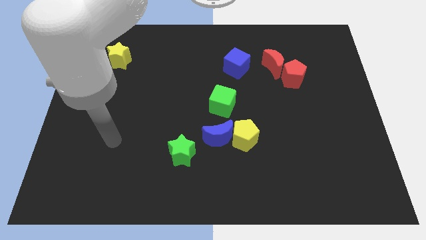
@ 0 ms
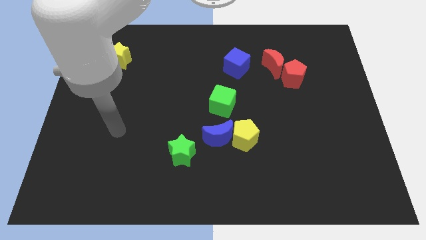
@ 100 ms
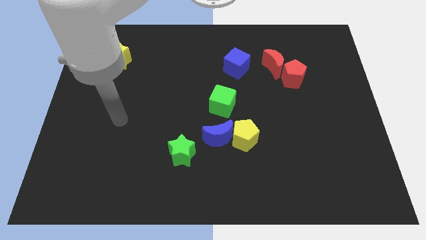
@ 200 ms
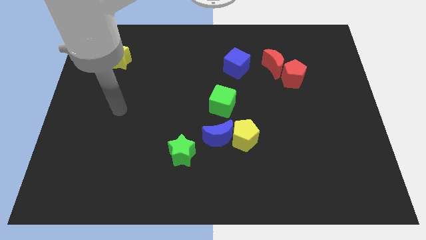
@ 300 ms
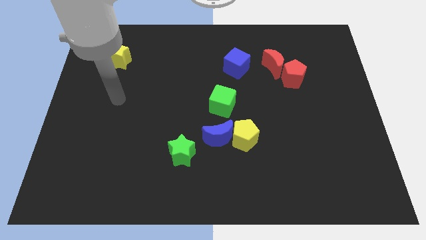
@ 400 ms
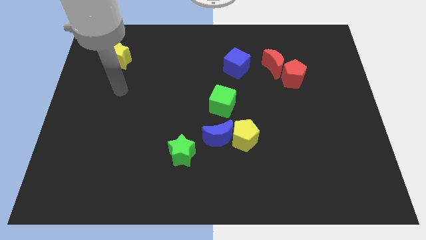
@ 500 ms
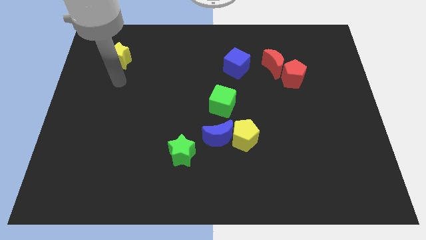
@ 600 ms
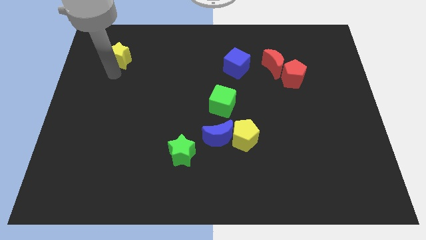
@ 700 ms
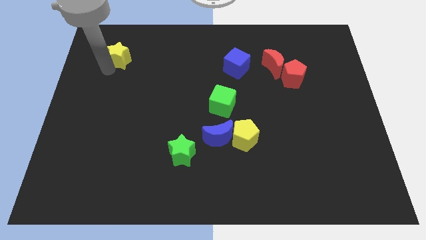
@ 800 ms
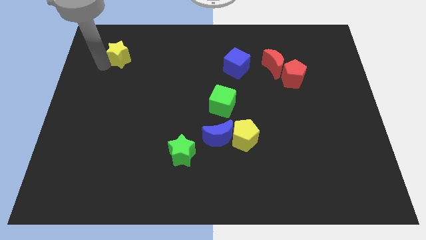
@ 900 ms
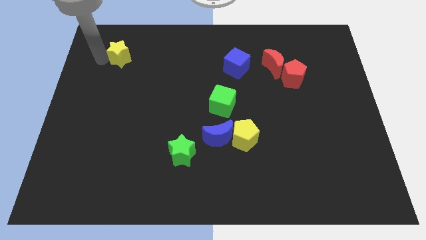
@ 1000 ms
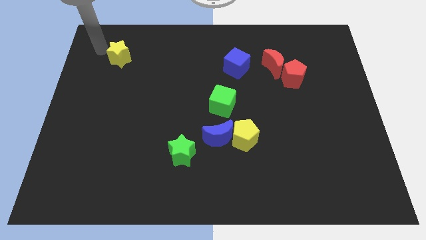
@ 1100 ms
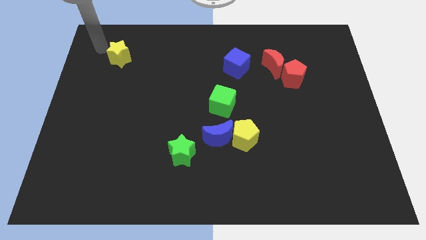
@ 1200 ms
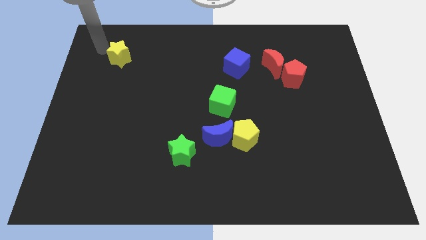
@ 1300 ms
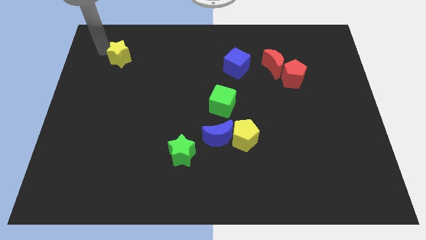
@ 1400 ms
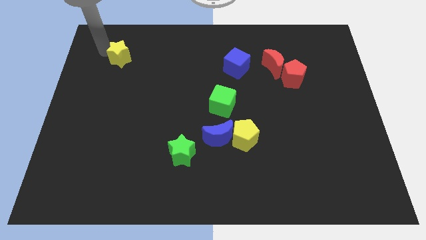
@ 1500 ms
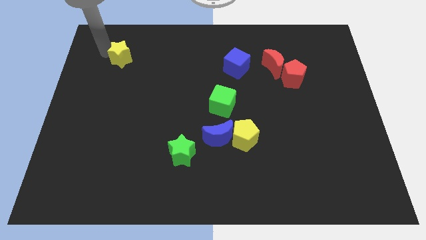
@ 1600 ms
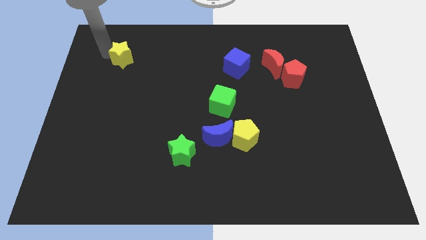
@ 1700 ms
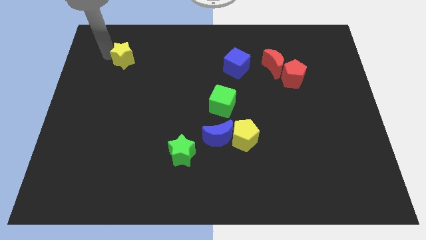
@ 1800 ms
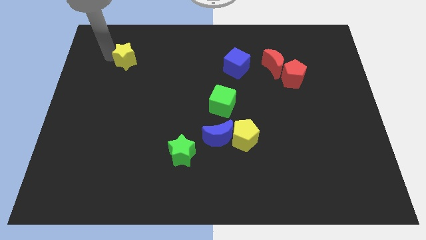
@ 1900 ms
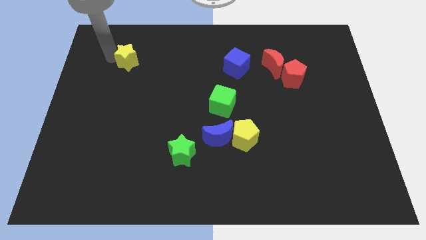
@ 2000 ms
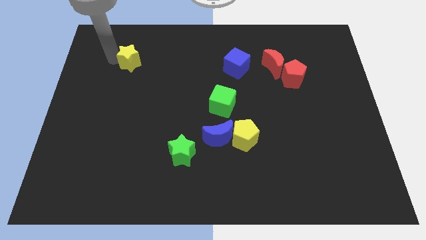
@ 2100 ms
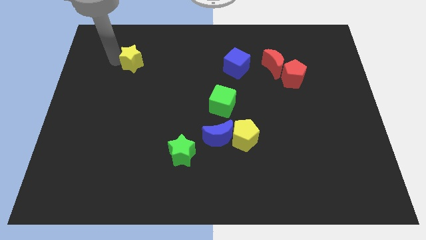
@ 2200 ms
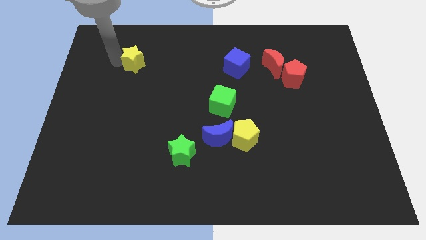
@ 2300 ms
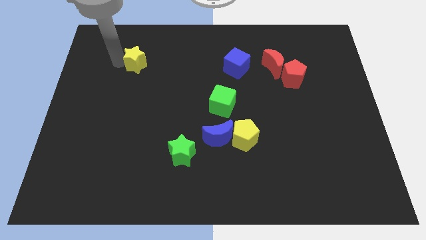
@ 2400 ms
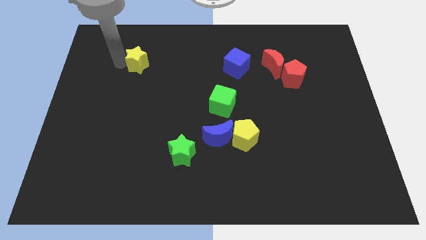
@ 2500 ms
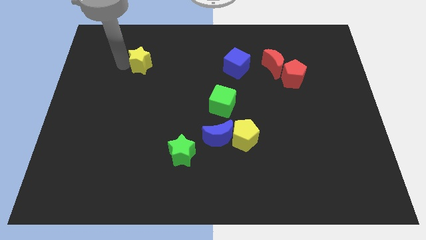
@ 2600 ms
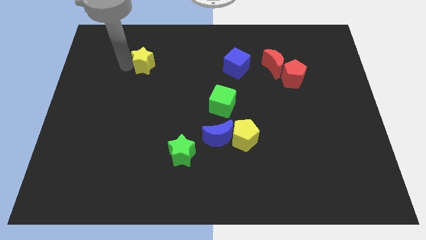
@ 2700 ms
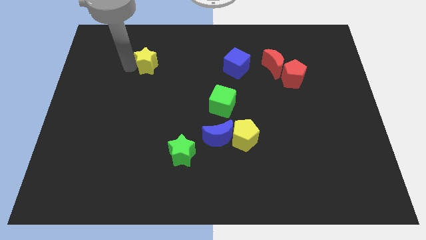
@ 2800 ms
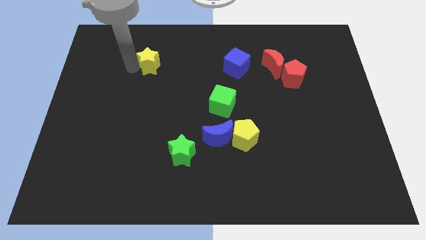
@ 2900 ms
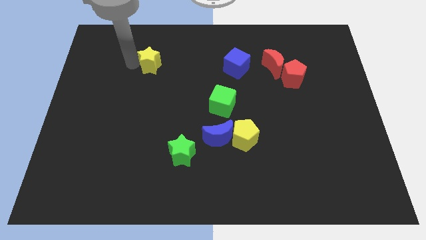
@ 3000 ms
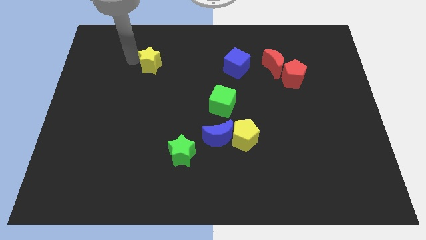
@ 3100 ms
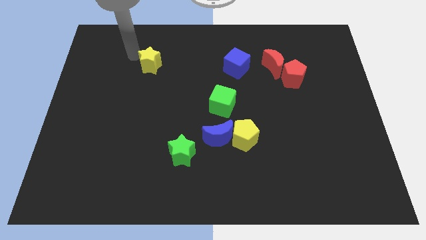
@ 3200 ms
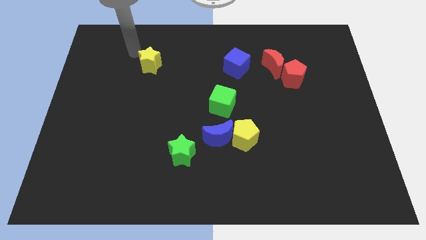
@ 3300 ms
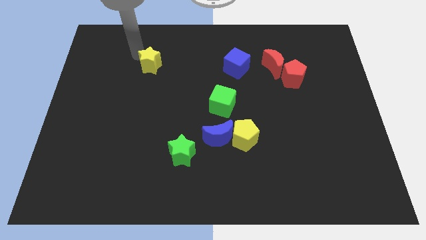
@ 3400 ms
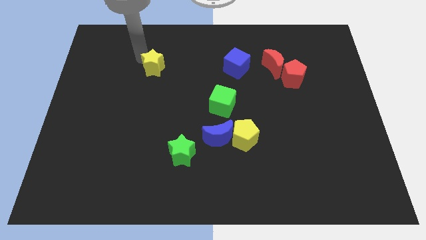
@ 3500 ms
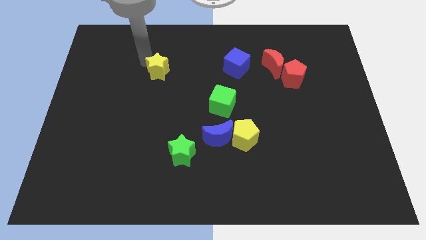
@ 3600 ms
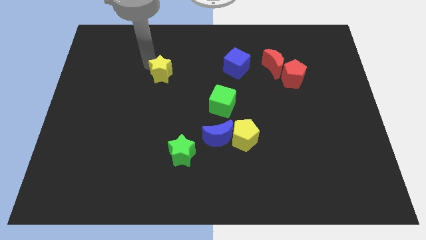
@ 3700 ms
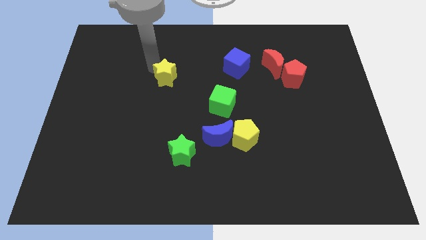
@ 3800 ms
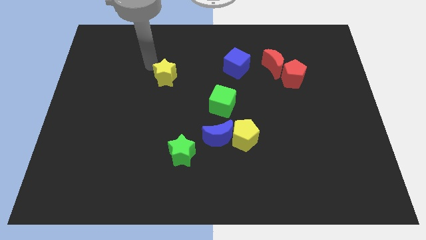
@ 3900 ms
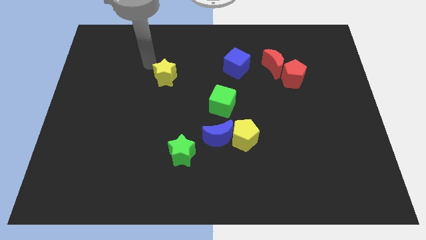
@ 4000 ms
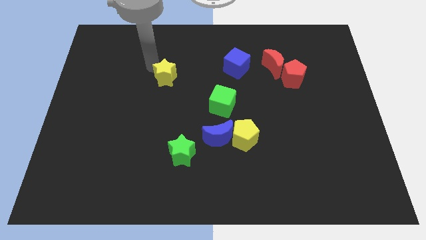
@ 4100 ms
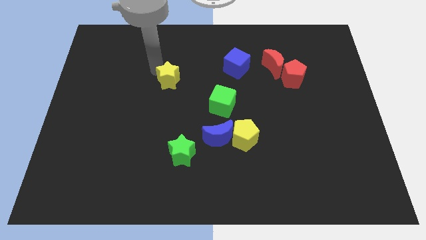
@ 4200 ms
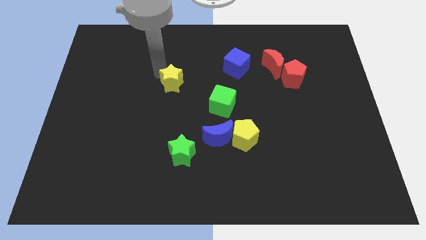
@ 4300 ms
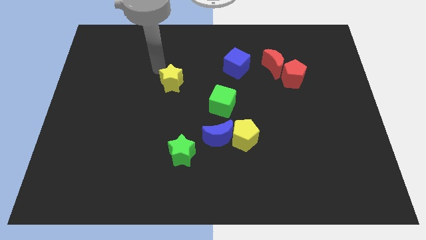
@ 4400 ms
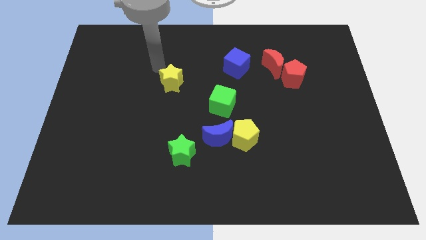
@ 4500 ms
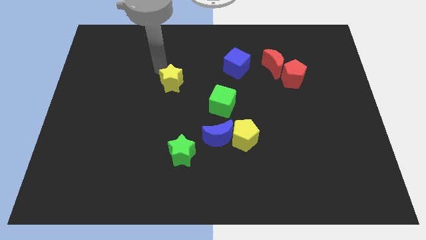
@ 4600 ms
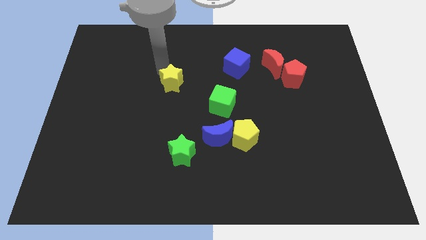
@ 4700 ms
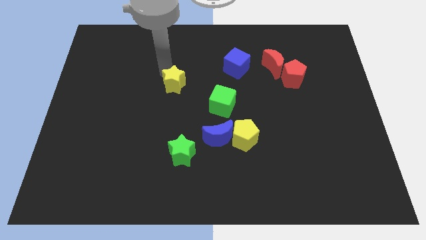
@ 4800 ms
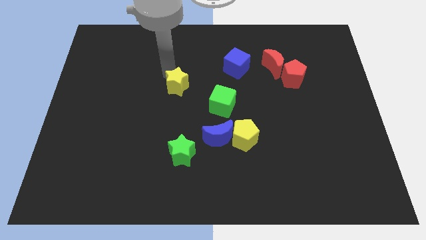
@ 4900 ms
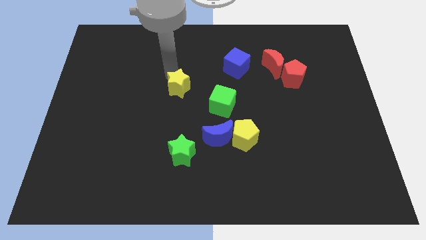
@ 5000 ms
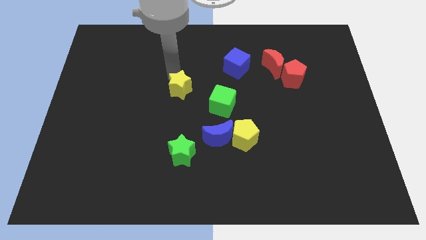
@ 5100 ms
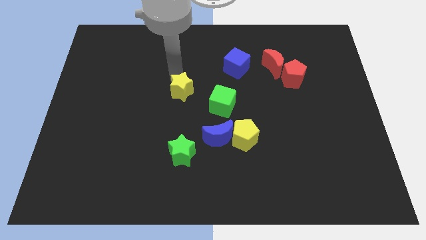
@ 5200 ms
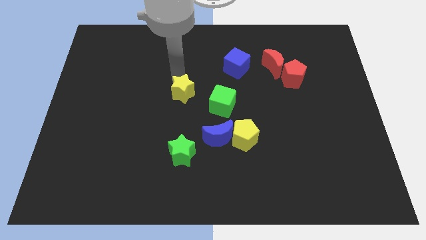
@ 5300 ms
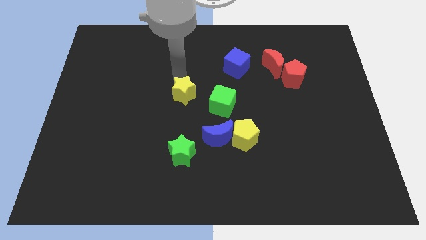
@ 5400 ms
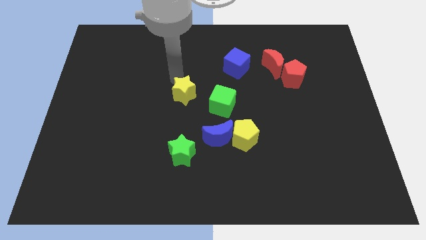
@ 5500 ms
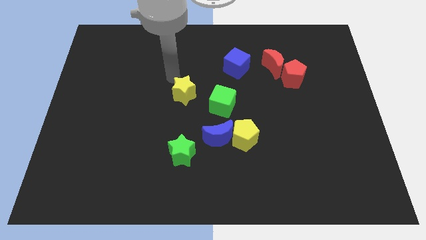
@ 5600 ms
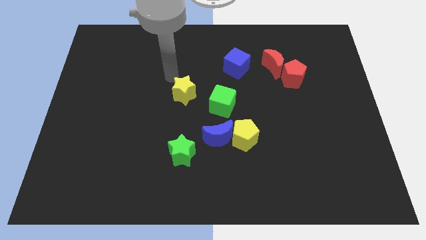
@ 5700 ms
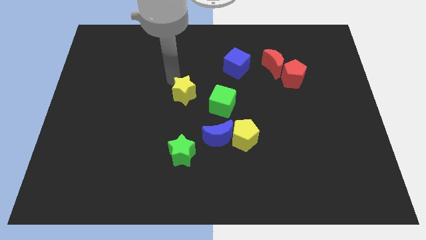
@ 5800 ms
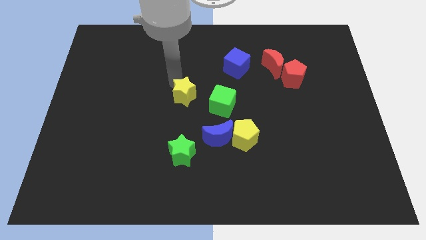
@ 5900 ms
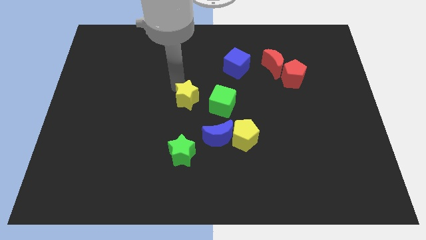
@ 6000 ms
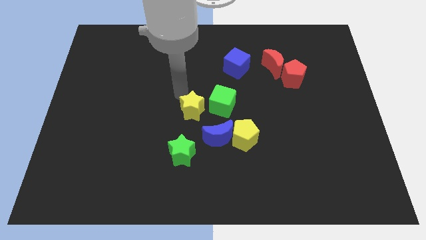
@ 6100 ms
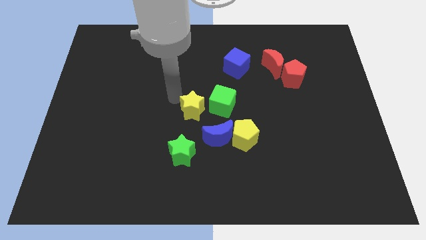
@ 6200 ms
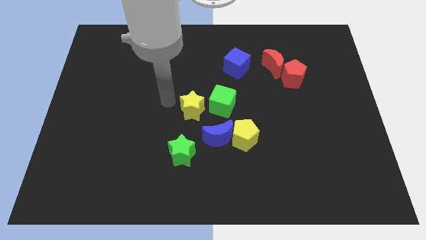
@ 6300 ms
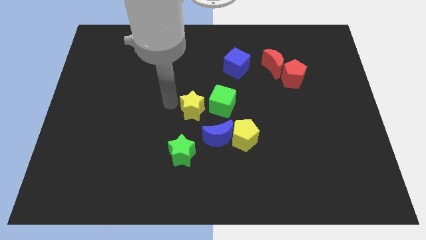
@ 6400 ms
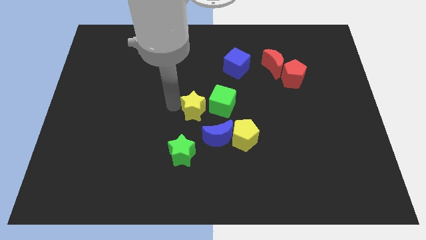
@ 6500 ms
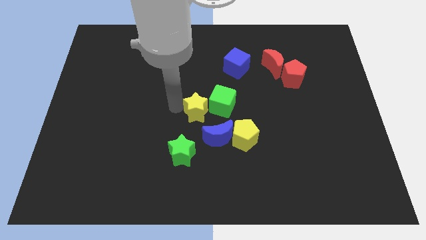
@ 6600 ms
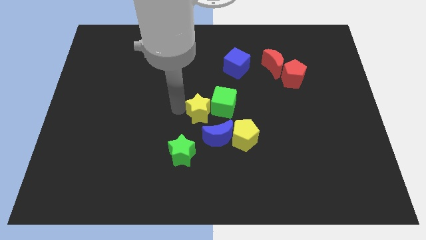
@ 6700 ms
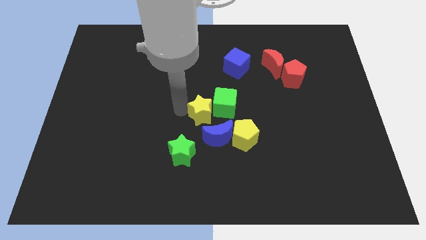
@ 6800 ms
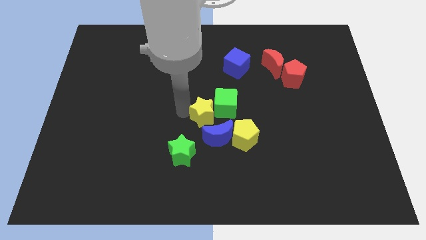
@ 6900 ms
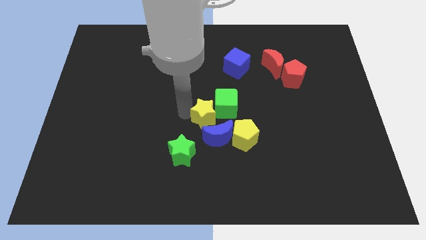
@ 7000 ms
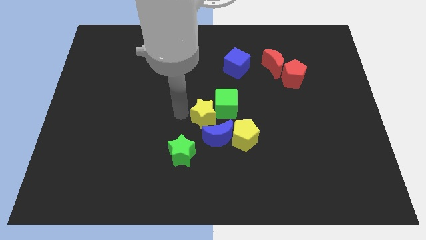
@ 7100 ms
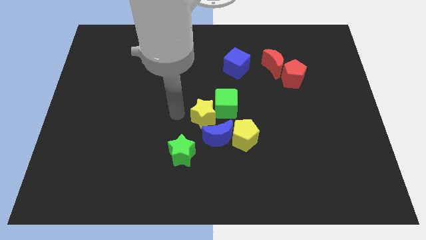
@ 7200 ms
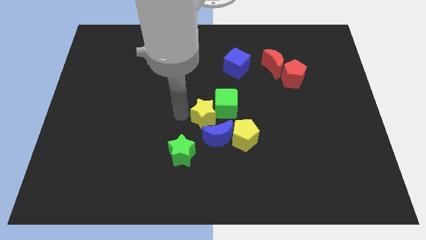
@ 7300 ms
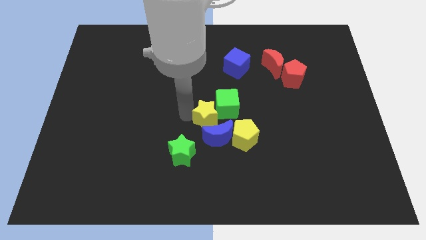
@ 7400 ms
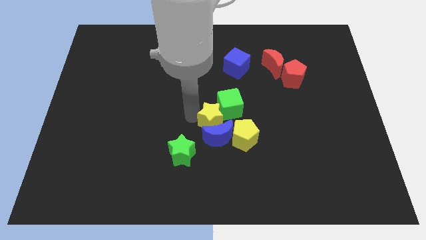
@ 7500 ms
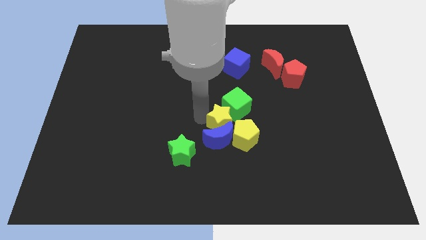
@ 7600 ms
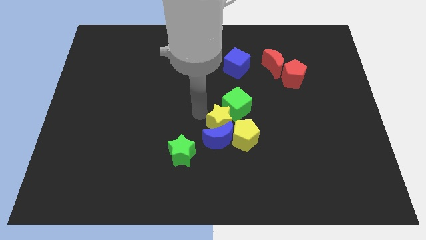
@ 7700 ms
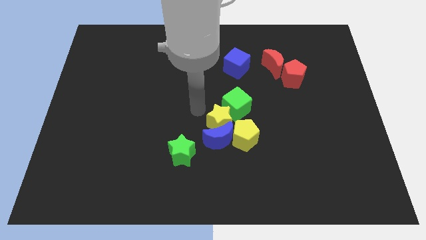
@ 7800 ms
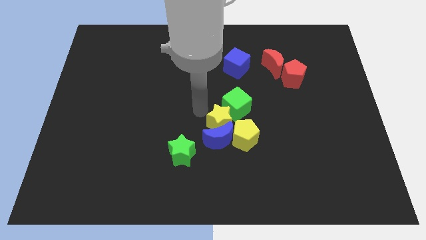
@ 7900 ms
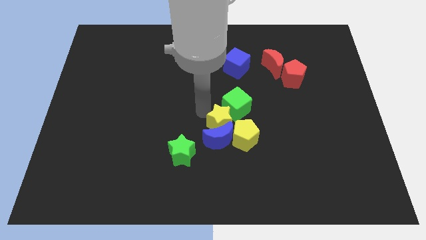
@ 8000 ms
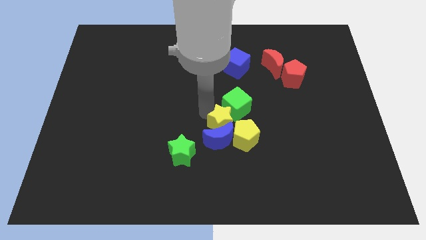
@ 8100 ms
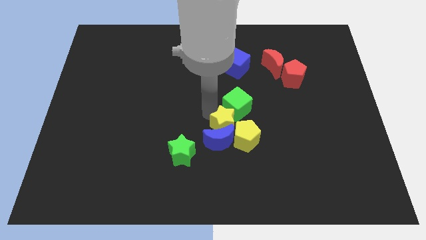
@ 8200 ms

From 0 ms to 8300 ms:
put the yellow star close to the yellow pentagon
